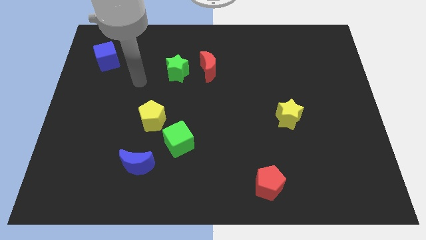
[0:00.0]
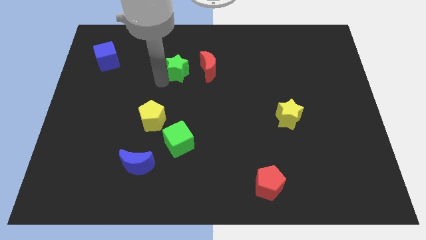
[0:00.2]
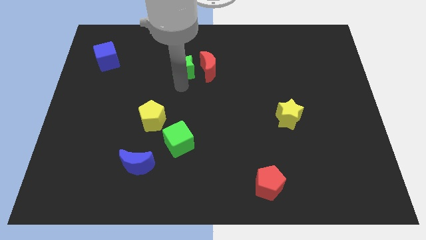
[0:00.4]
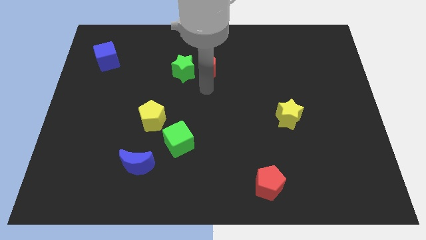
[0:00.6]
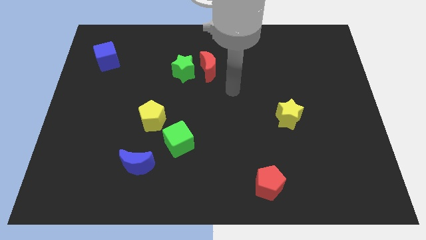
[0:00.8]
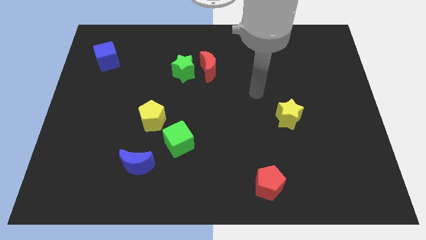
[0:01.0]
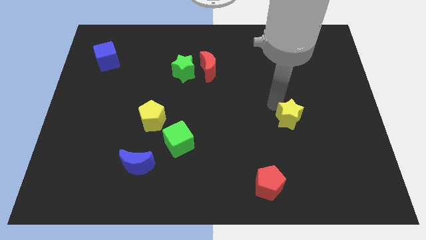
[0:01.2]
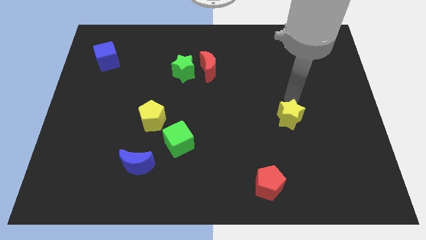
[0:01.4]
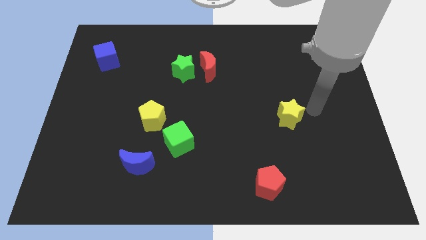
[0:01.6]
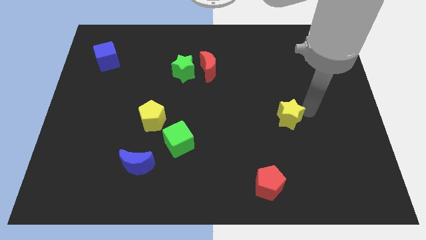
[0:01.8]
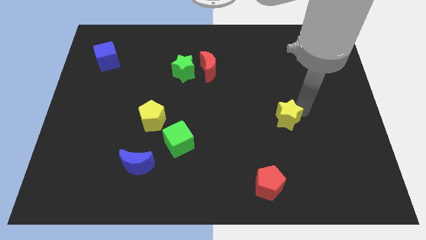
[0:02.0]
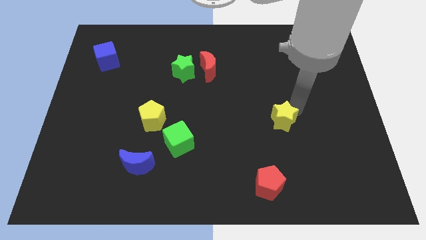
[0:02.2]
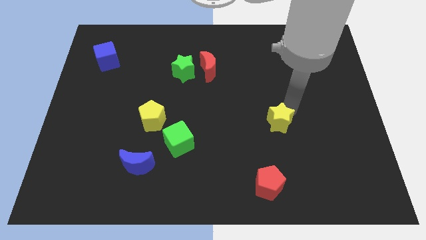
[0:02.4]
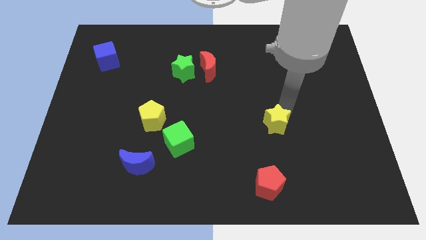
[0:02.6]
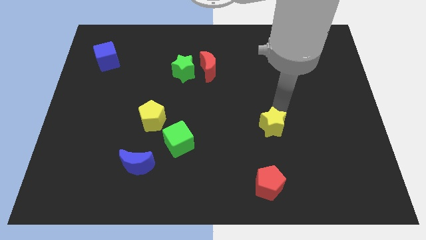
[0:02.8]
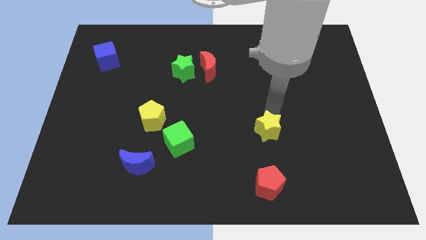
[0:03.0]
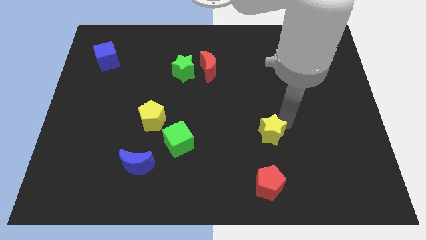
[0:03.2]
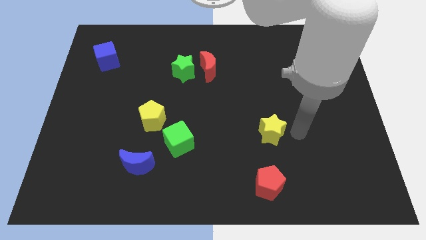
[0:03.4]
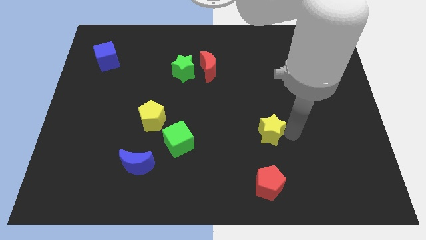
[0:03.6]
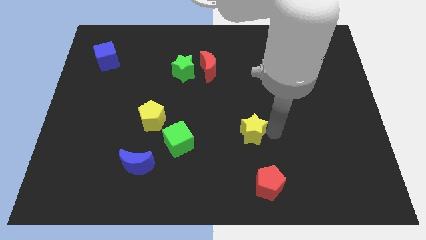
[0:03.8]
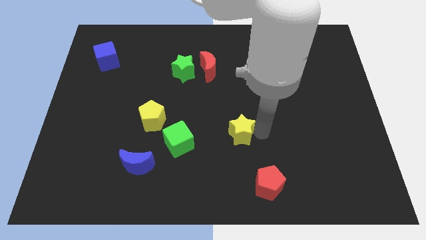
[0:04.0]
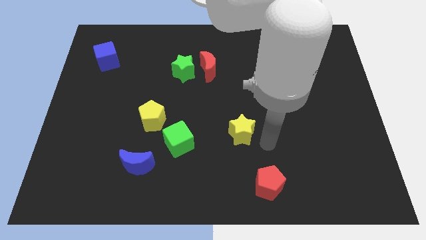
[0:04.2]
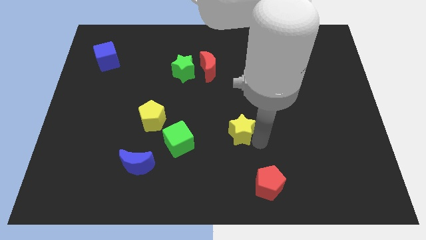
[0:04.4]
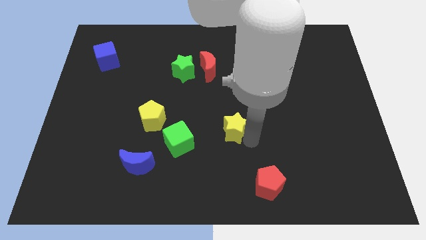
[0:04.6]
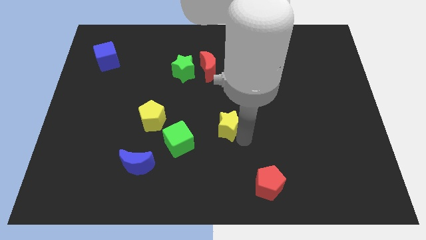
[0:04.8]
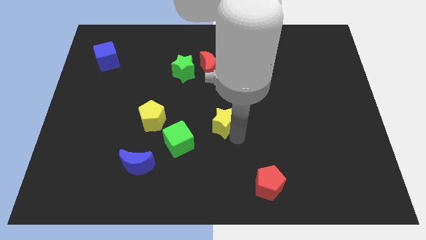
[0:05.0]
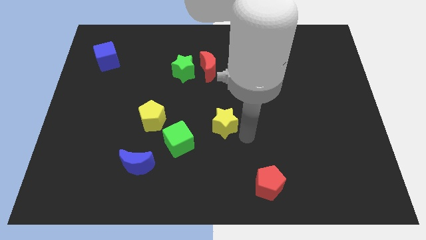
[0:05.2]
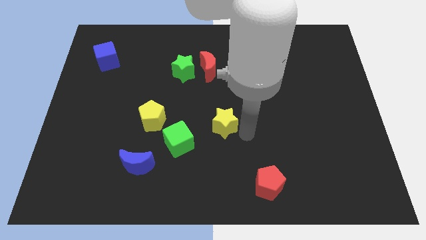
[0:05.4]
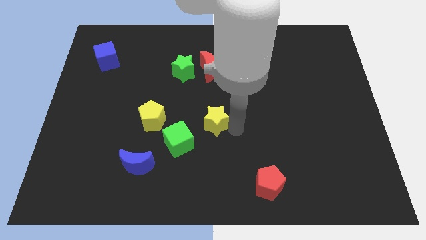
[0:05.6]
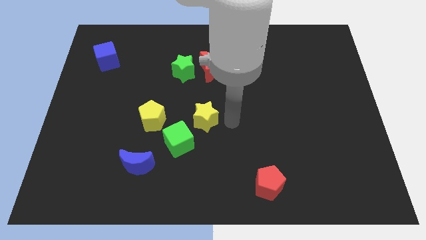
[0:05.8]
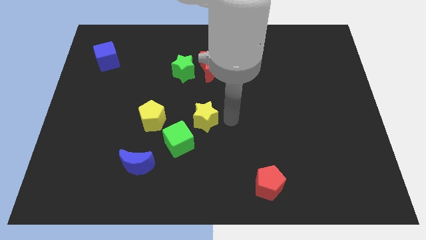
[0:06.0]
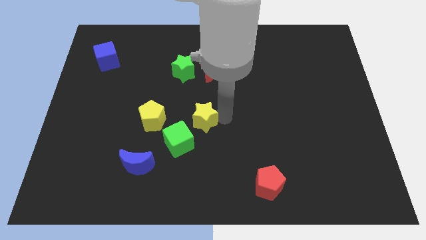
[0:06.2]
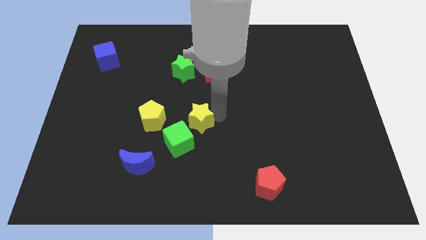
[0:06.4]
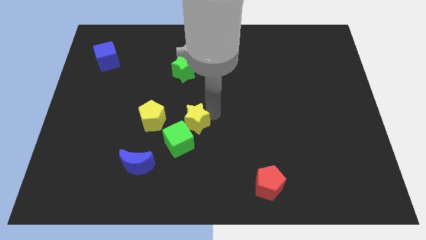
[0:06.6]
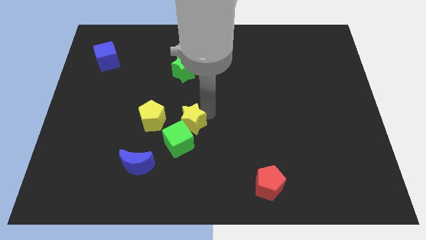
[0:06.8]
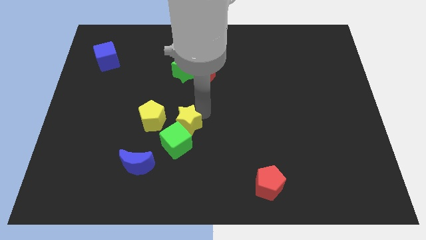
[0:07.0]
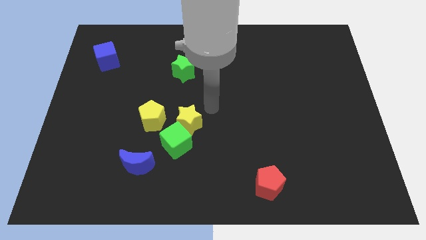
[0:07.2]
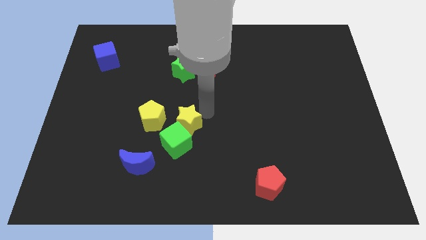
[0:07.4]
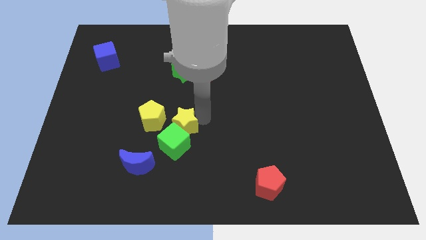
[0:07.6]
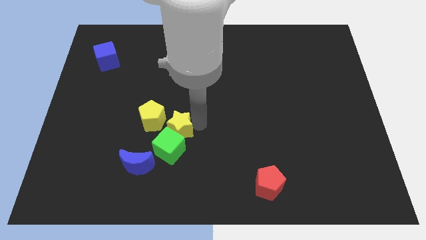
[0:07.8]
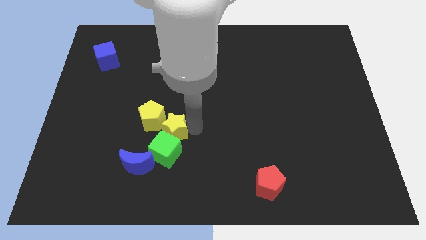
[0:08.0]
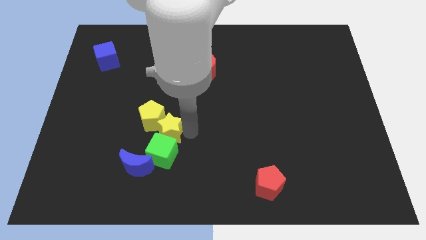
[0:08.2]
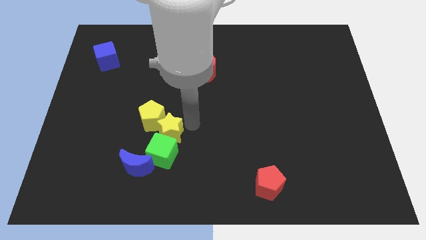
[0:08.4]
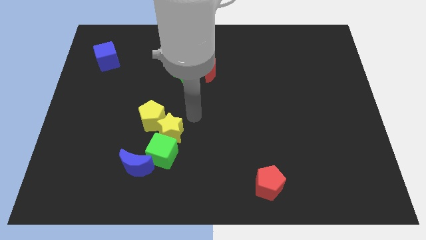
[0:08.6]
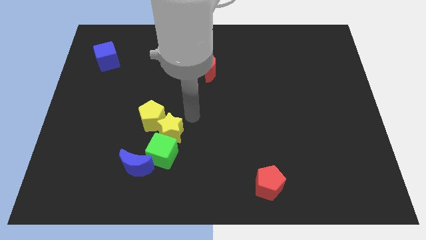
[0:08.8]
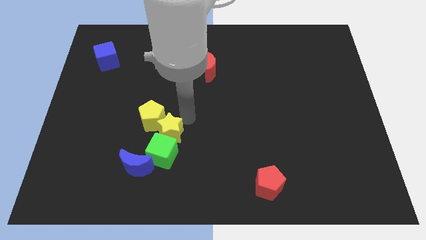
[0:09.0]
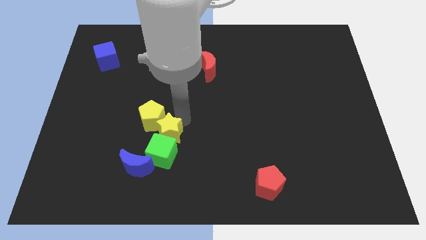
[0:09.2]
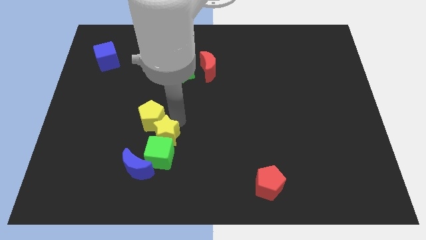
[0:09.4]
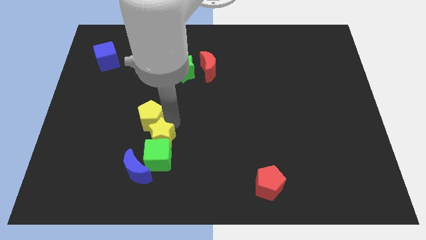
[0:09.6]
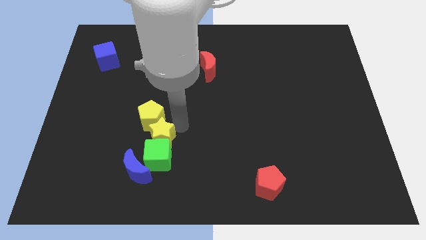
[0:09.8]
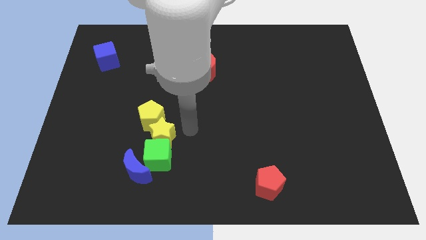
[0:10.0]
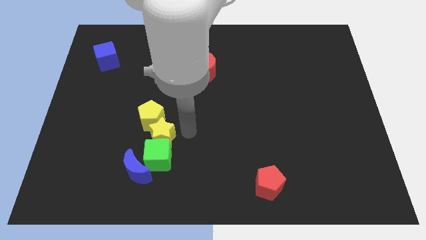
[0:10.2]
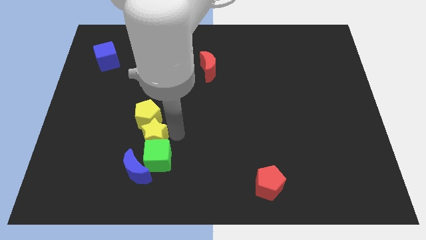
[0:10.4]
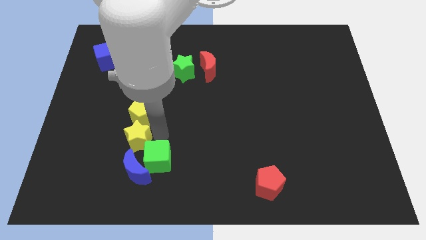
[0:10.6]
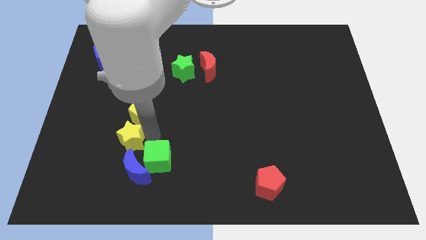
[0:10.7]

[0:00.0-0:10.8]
move the yellow star to the top left side of the blue moon

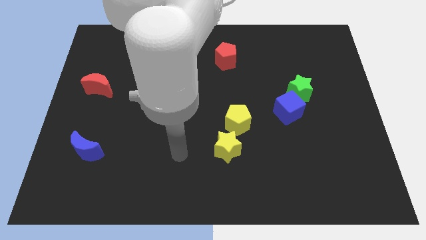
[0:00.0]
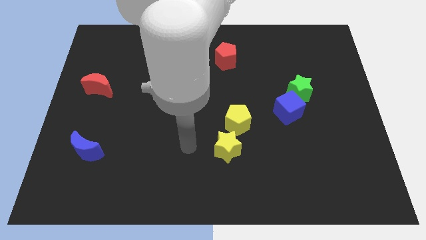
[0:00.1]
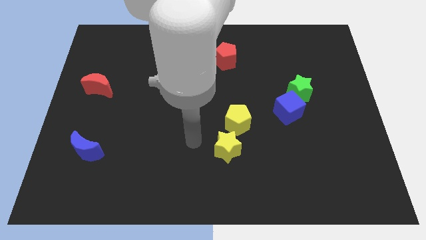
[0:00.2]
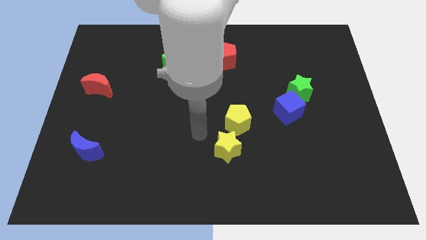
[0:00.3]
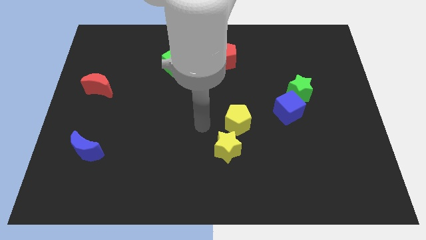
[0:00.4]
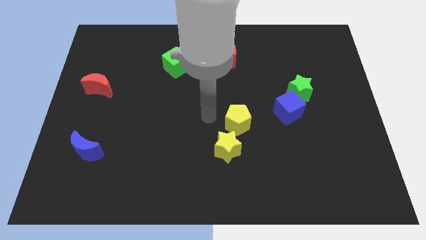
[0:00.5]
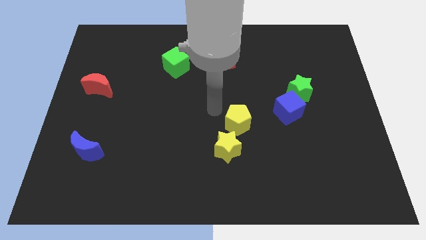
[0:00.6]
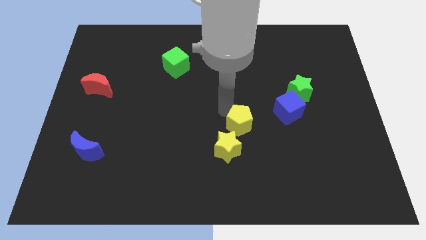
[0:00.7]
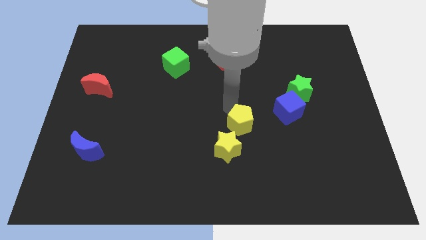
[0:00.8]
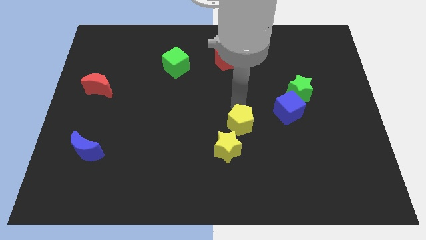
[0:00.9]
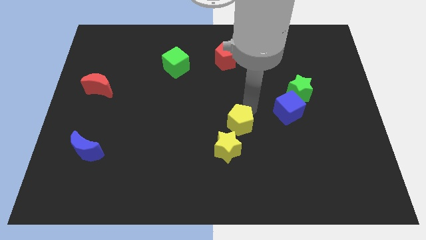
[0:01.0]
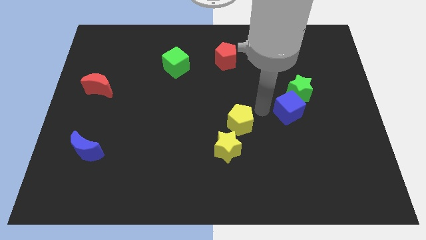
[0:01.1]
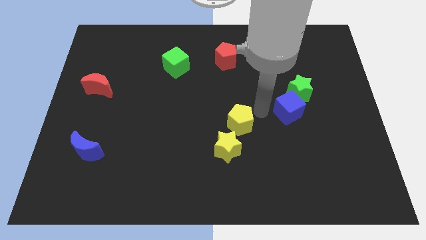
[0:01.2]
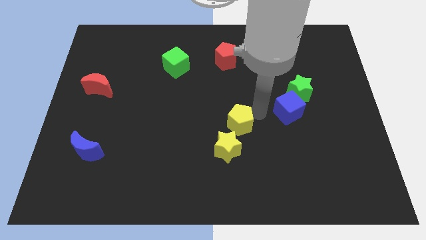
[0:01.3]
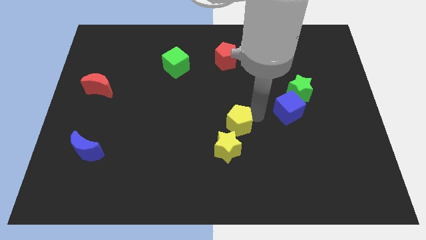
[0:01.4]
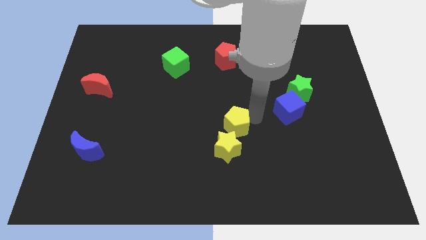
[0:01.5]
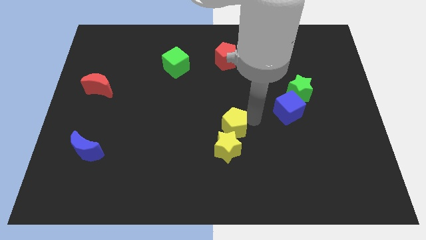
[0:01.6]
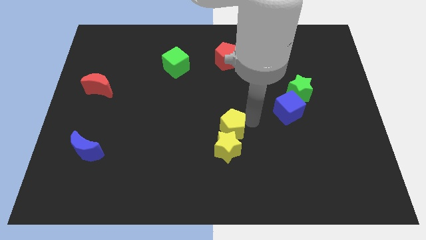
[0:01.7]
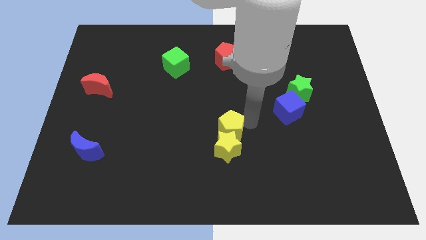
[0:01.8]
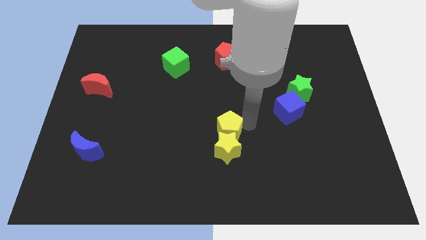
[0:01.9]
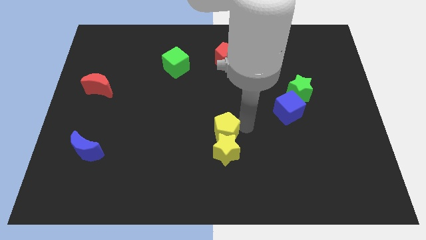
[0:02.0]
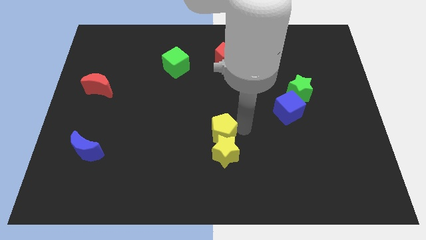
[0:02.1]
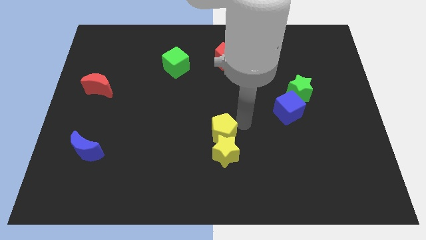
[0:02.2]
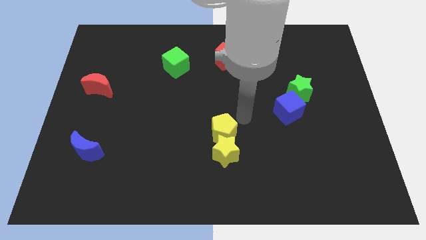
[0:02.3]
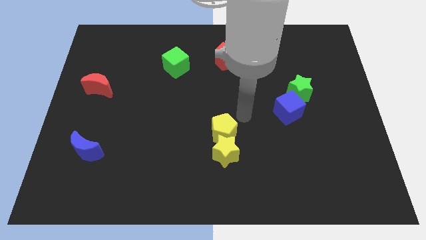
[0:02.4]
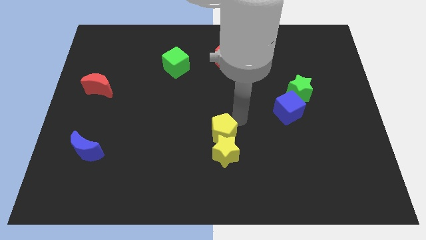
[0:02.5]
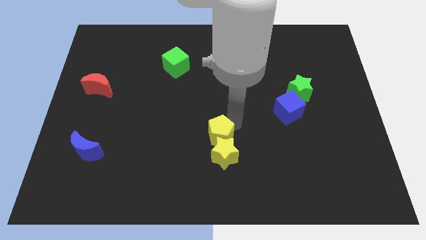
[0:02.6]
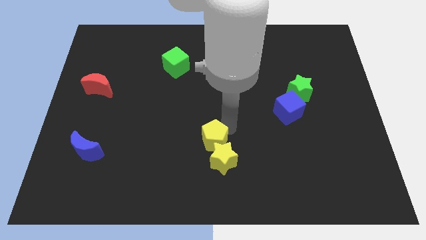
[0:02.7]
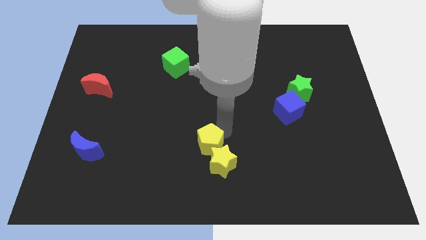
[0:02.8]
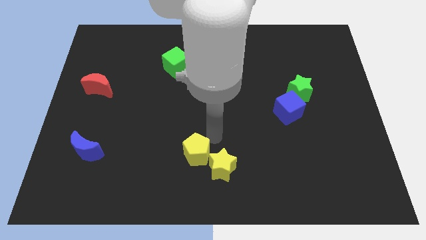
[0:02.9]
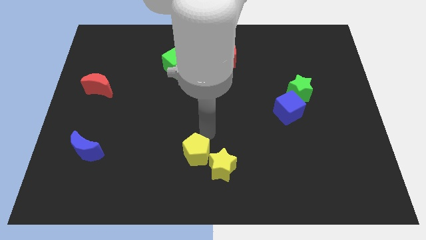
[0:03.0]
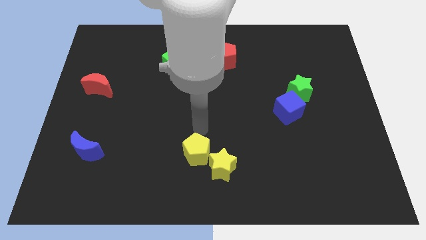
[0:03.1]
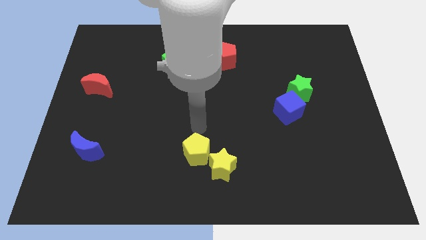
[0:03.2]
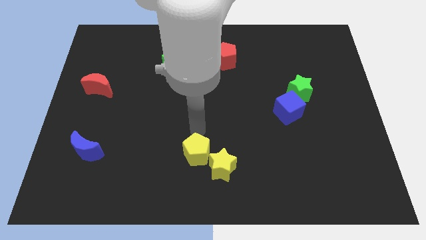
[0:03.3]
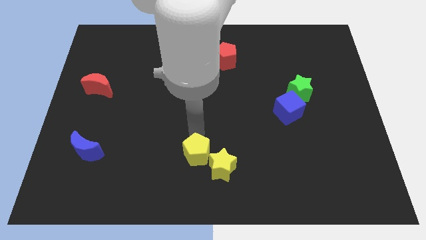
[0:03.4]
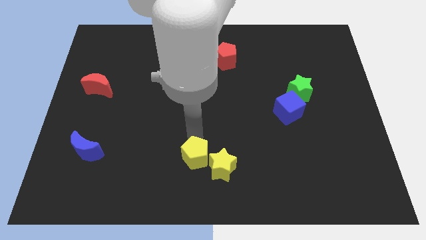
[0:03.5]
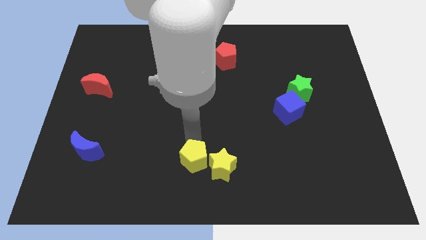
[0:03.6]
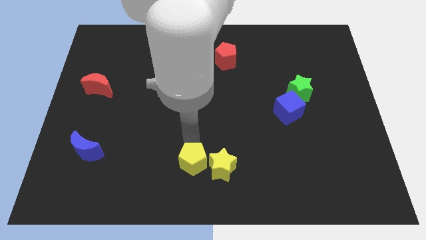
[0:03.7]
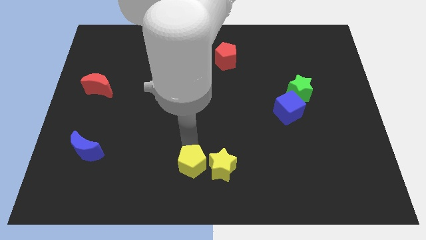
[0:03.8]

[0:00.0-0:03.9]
put the yellow pentagon to the bottom left of the yellow star
